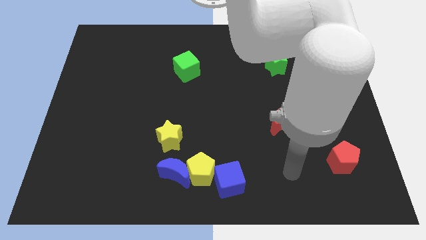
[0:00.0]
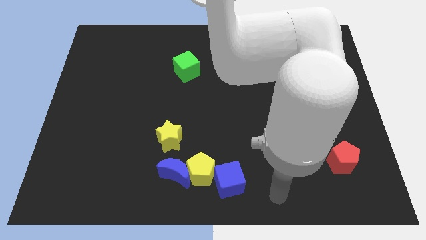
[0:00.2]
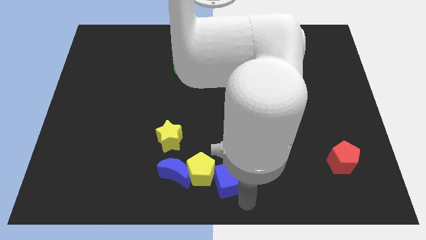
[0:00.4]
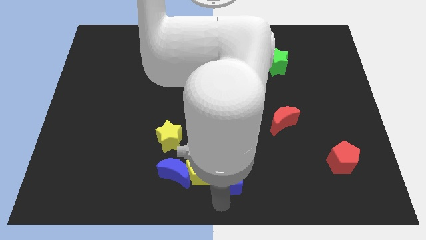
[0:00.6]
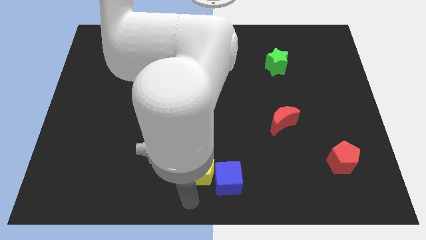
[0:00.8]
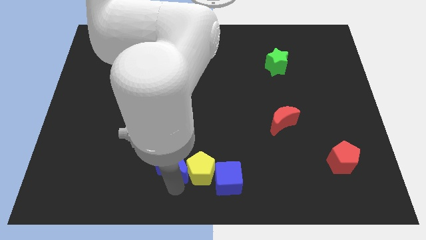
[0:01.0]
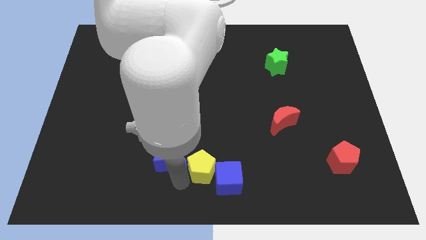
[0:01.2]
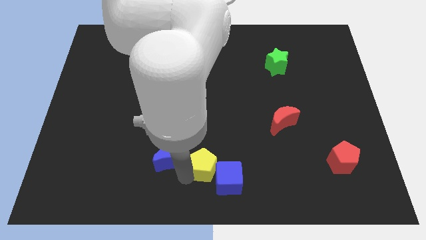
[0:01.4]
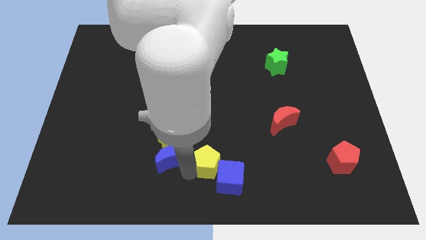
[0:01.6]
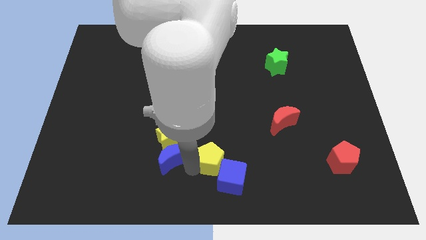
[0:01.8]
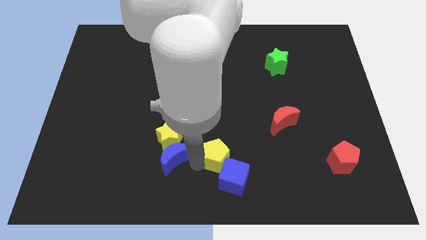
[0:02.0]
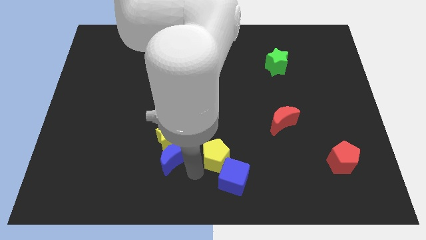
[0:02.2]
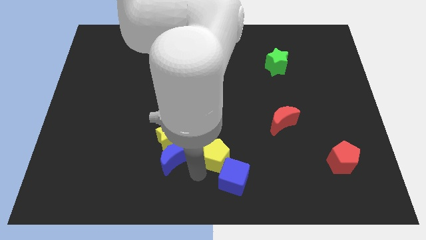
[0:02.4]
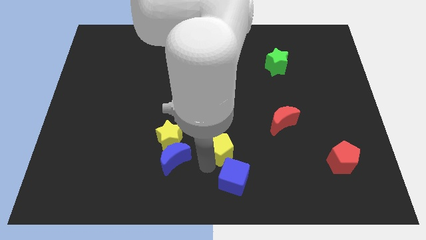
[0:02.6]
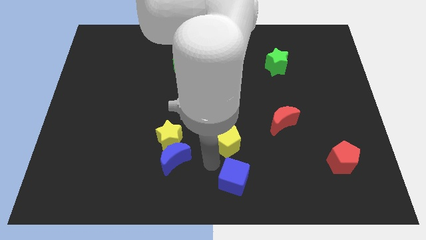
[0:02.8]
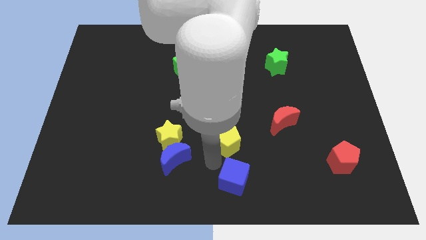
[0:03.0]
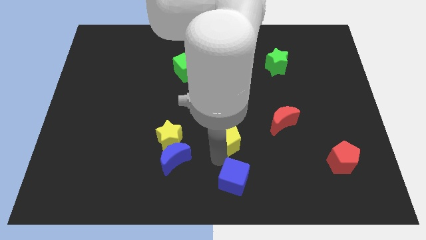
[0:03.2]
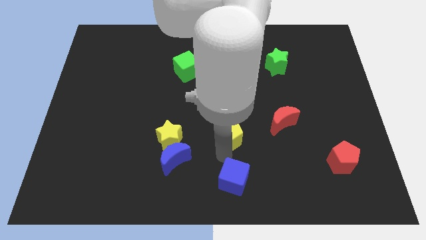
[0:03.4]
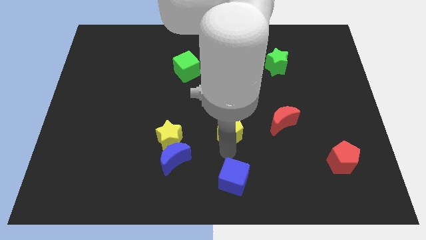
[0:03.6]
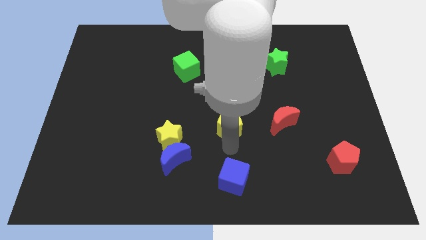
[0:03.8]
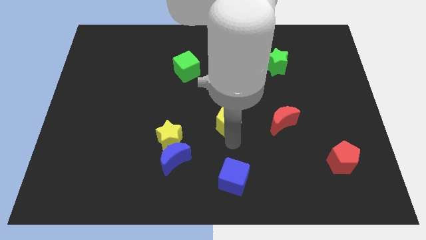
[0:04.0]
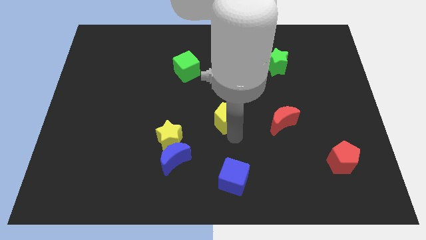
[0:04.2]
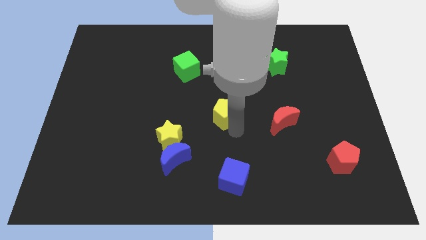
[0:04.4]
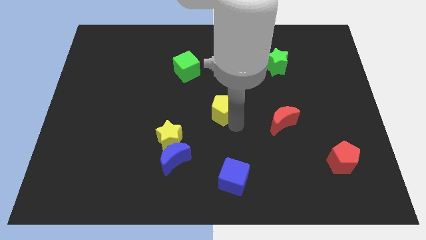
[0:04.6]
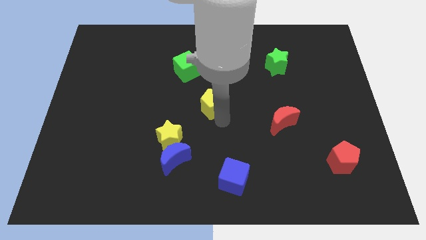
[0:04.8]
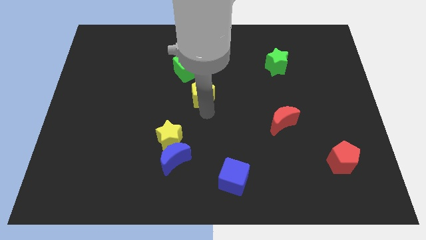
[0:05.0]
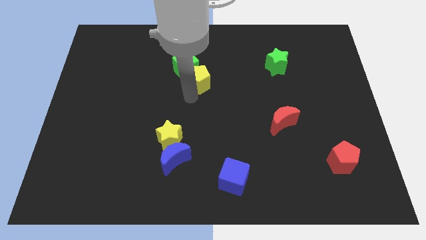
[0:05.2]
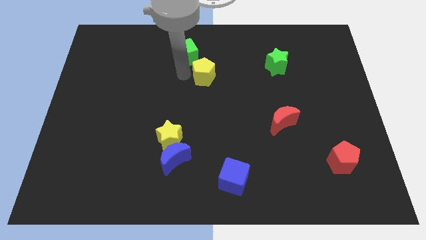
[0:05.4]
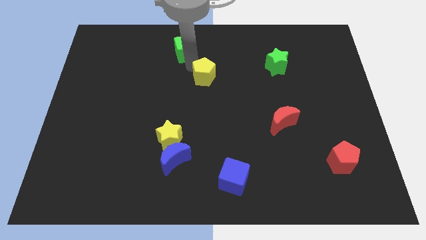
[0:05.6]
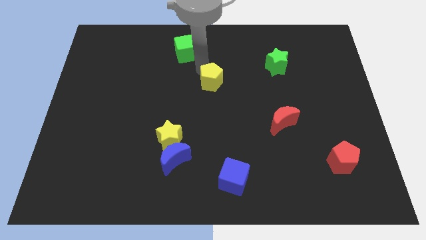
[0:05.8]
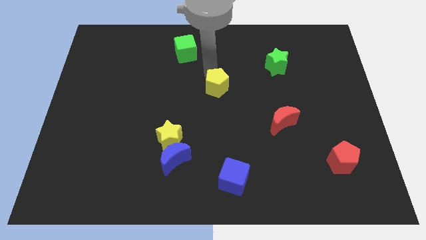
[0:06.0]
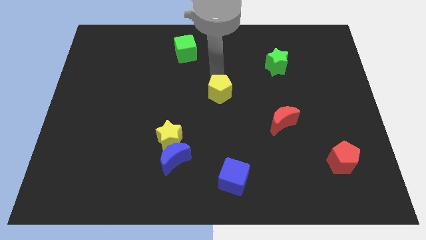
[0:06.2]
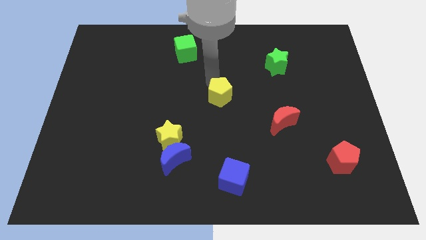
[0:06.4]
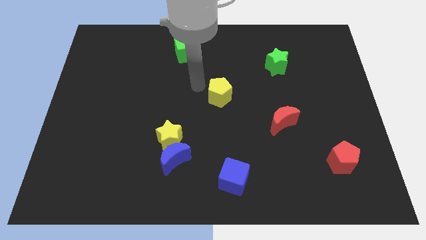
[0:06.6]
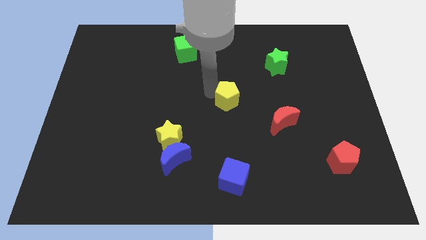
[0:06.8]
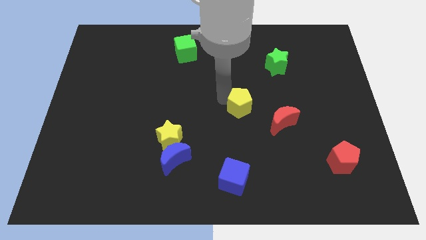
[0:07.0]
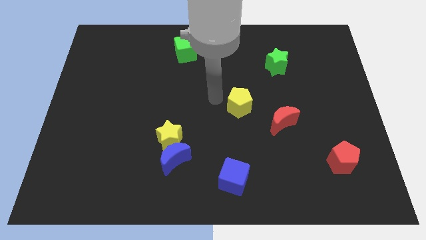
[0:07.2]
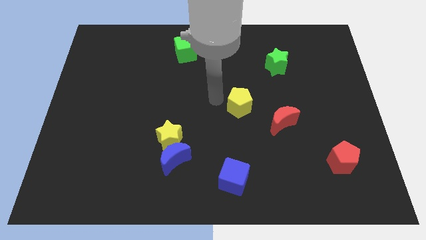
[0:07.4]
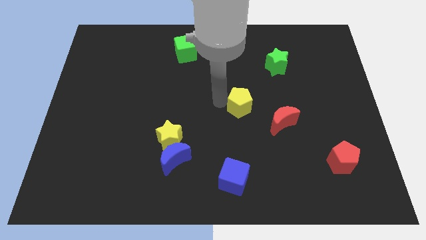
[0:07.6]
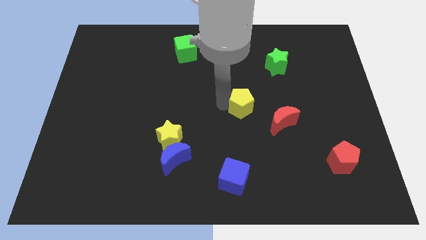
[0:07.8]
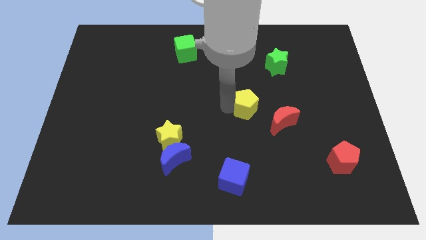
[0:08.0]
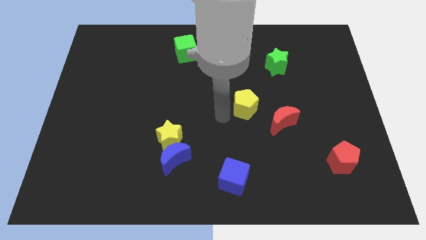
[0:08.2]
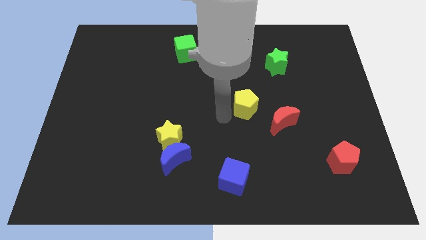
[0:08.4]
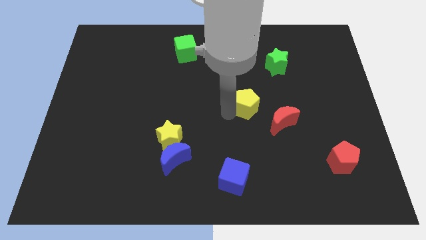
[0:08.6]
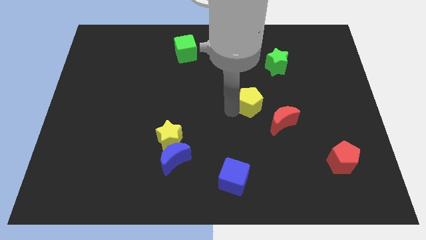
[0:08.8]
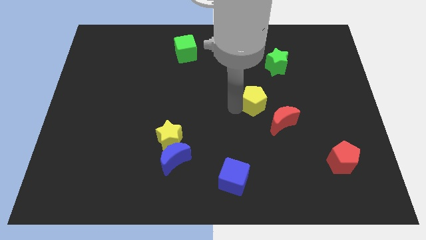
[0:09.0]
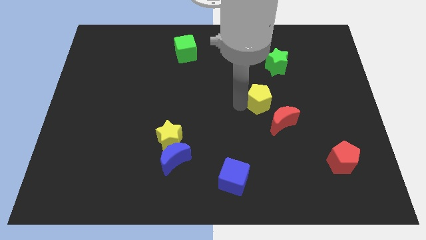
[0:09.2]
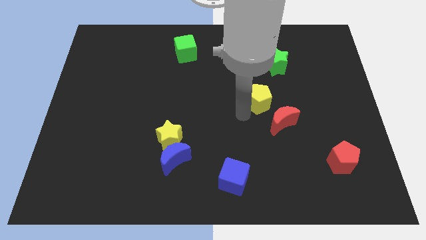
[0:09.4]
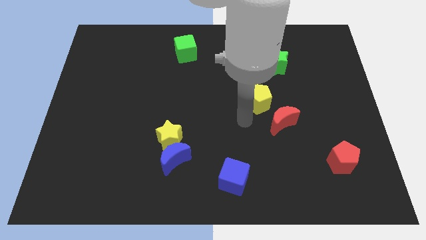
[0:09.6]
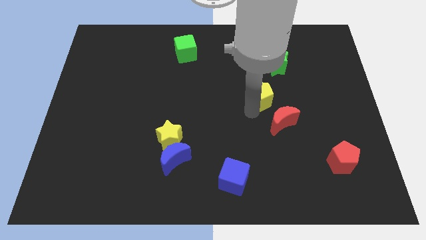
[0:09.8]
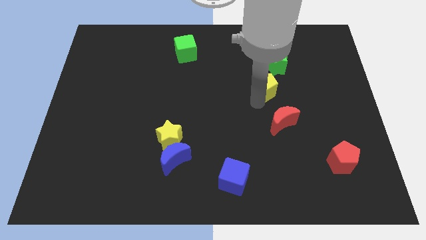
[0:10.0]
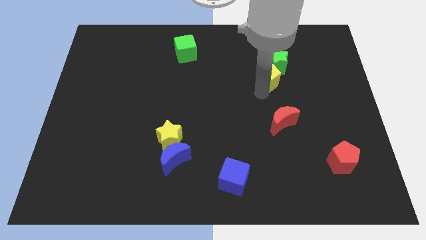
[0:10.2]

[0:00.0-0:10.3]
slide the yellow pentagon towards the green star

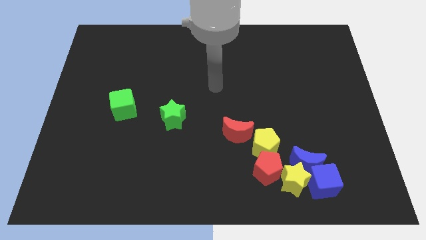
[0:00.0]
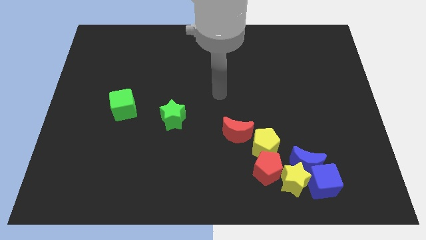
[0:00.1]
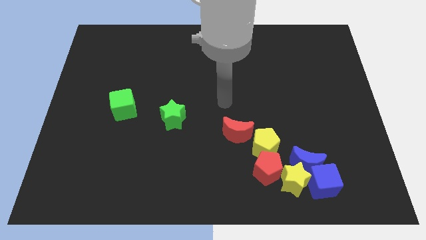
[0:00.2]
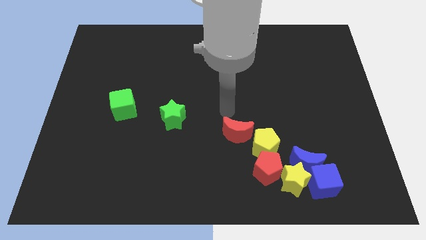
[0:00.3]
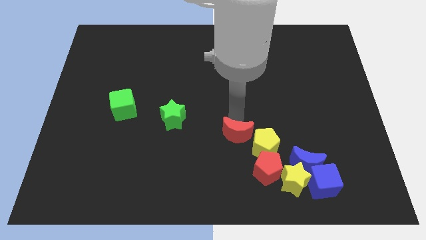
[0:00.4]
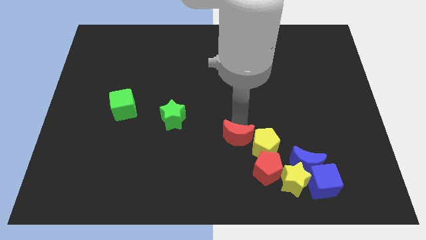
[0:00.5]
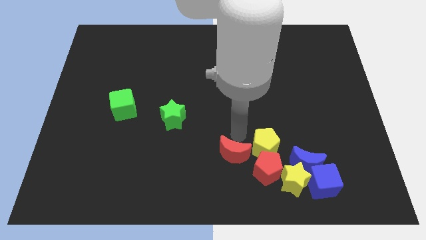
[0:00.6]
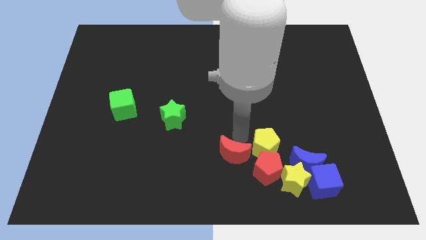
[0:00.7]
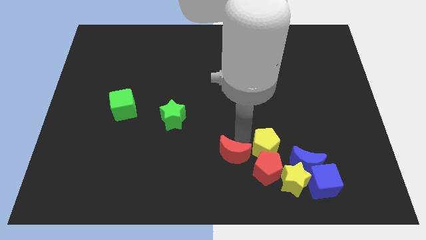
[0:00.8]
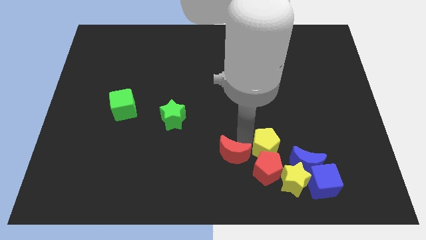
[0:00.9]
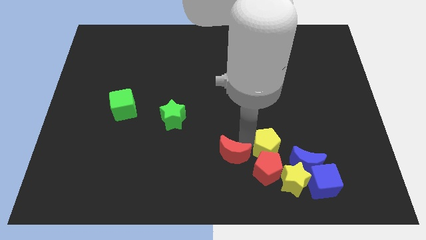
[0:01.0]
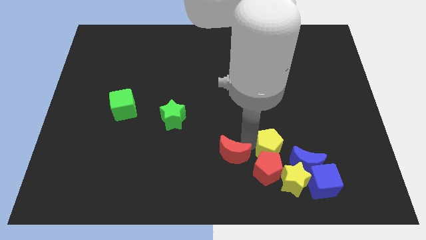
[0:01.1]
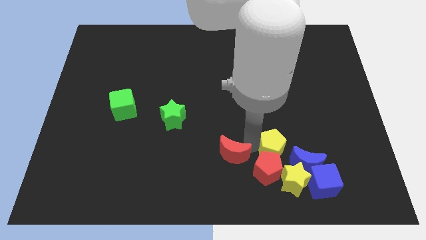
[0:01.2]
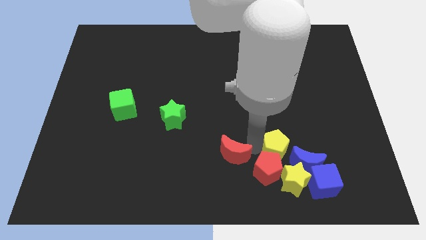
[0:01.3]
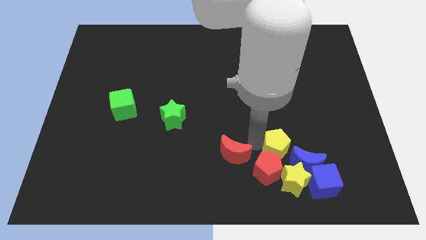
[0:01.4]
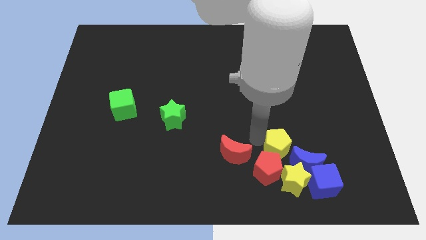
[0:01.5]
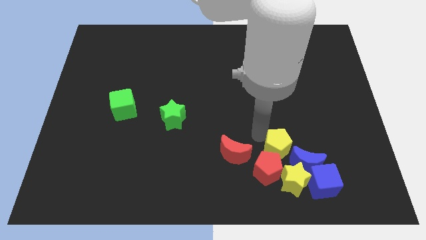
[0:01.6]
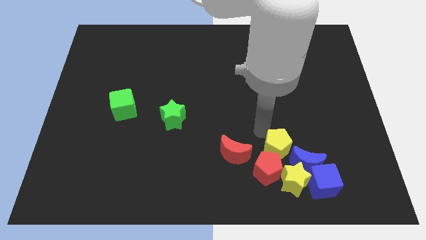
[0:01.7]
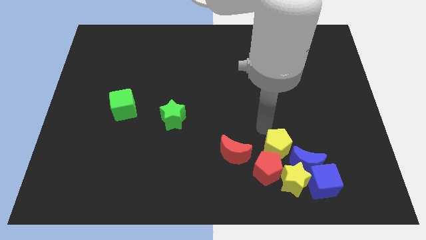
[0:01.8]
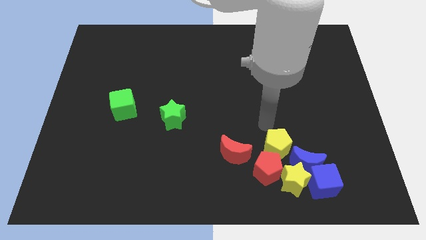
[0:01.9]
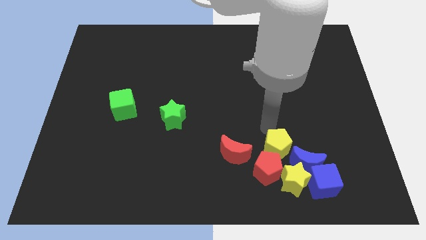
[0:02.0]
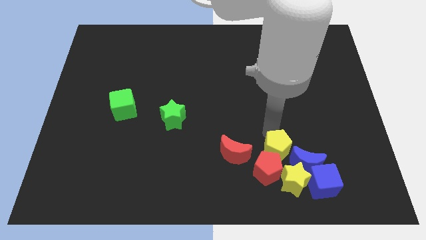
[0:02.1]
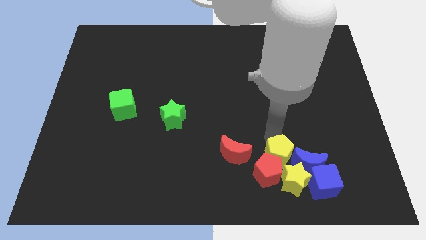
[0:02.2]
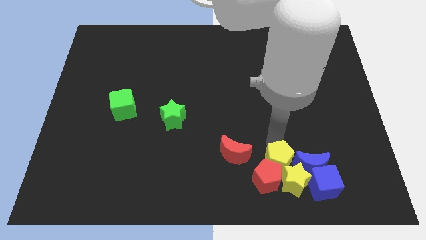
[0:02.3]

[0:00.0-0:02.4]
move the yellow pentagon next to the yellow star
